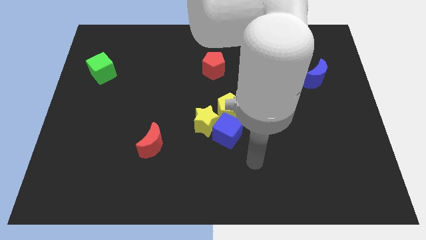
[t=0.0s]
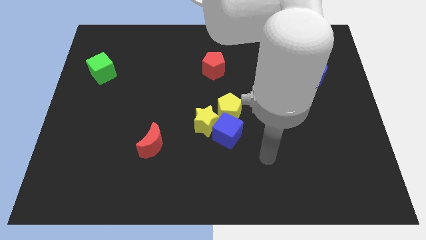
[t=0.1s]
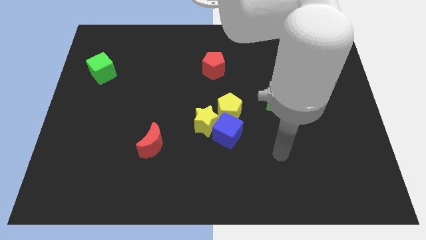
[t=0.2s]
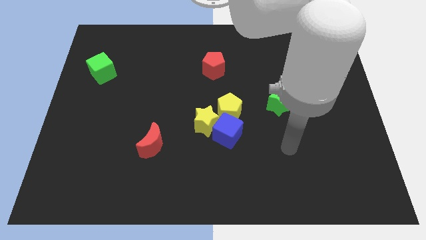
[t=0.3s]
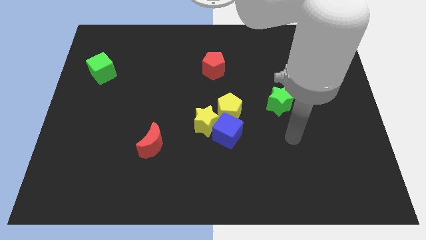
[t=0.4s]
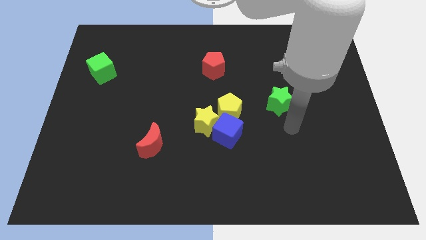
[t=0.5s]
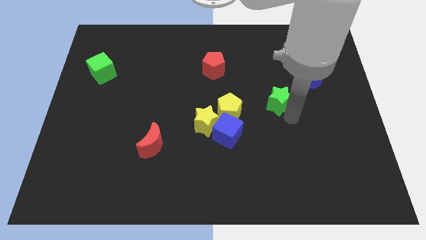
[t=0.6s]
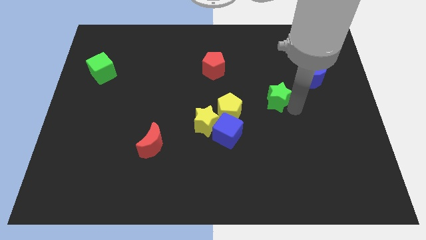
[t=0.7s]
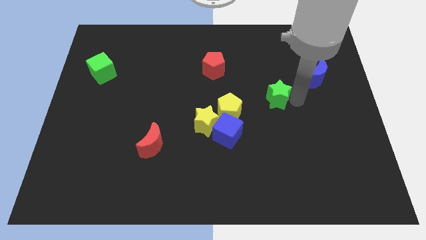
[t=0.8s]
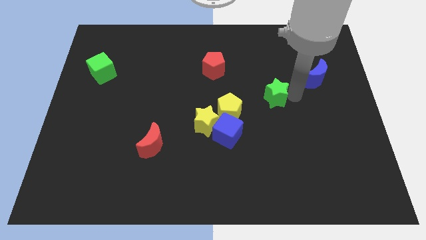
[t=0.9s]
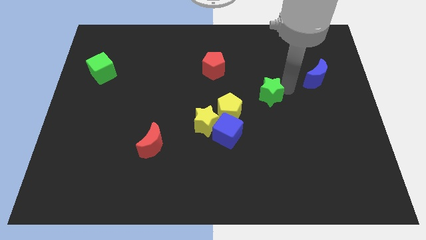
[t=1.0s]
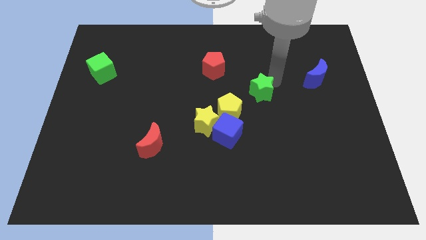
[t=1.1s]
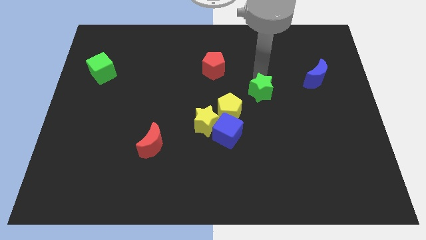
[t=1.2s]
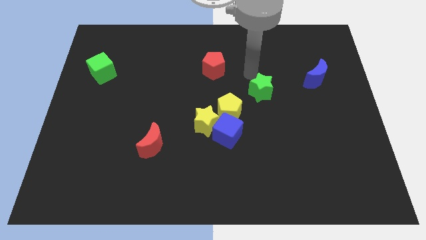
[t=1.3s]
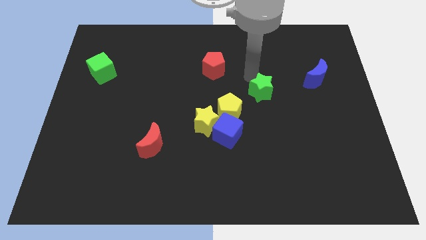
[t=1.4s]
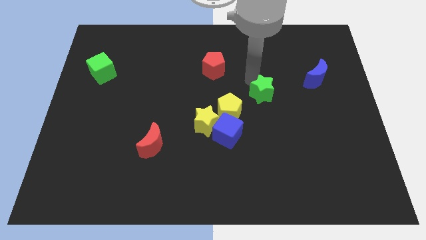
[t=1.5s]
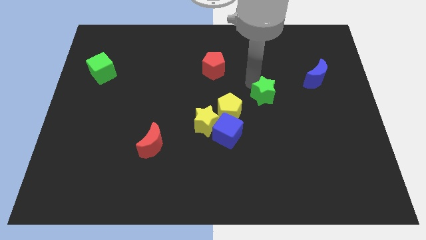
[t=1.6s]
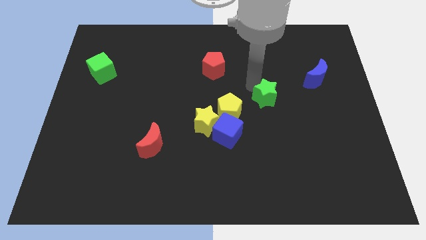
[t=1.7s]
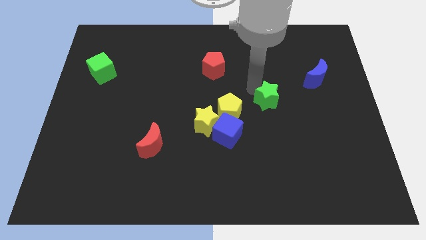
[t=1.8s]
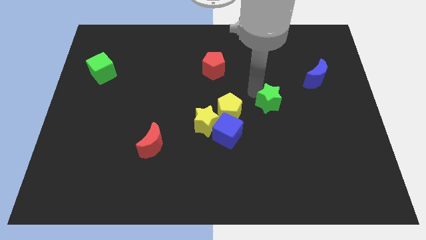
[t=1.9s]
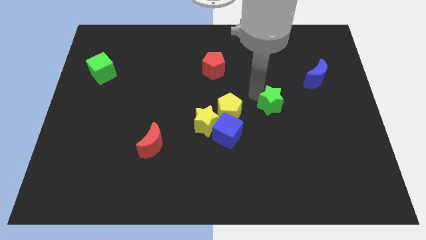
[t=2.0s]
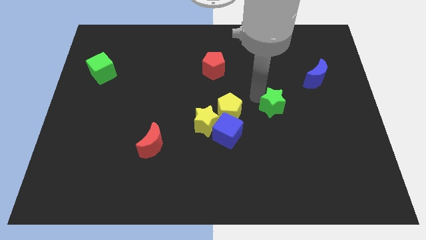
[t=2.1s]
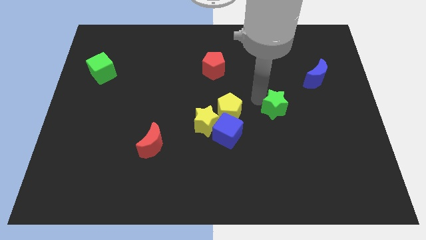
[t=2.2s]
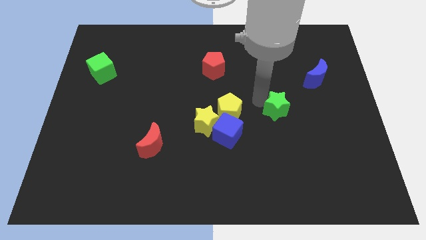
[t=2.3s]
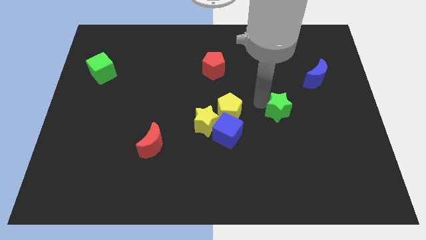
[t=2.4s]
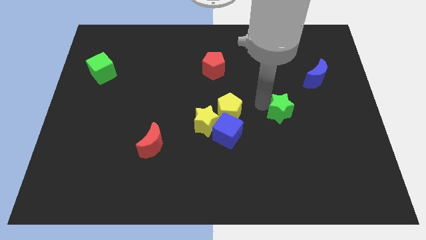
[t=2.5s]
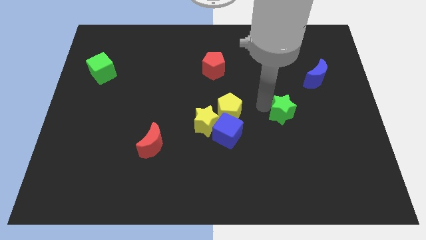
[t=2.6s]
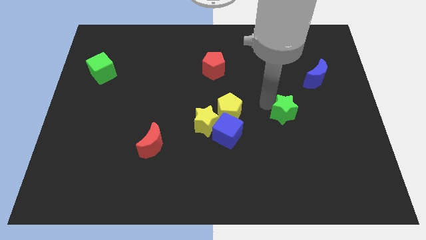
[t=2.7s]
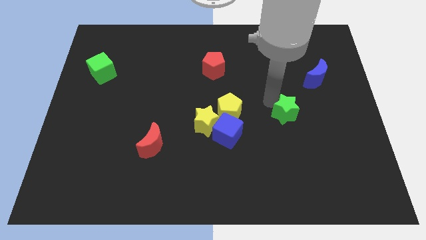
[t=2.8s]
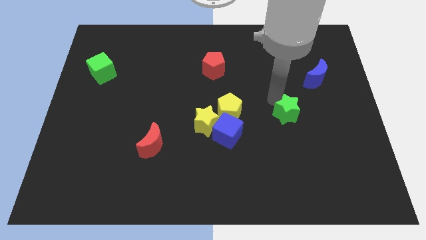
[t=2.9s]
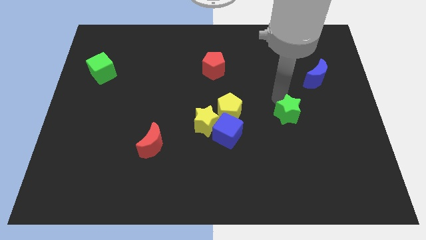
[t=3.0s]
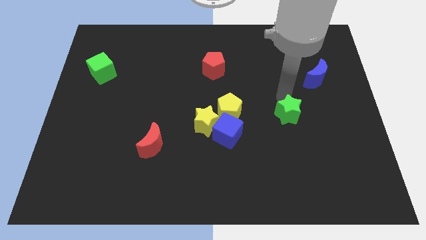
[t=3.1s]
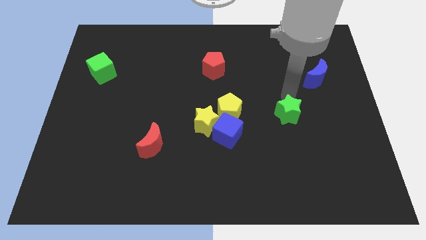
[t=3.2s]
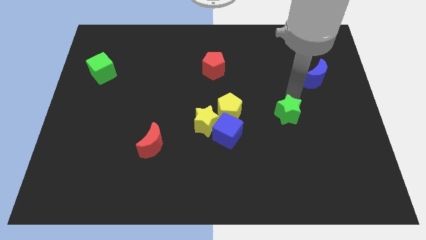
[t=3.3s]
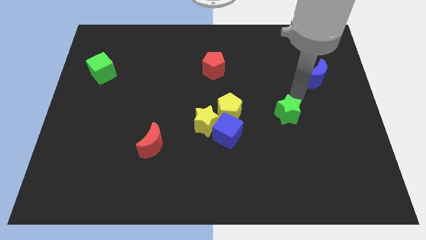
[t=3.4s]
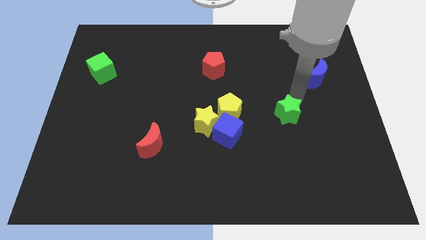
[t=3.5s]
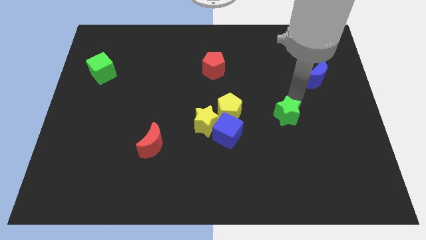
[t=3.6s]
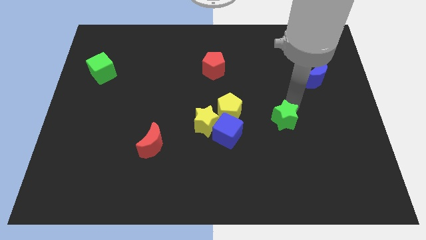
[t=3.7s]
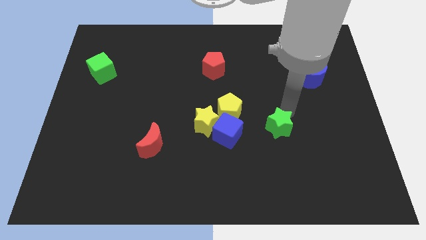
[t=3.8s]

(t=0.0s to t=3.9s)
slide the green star downwards a little bit

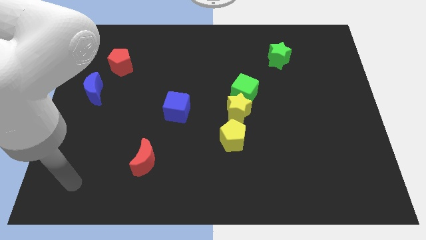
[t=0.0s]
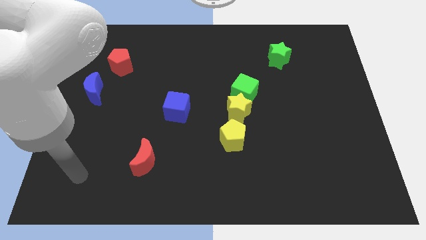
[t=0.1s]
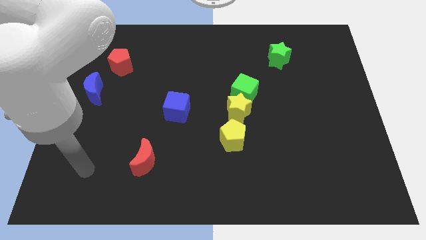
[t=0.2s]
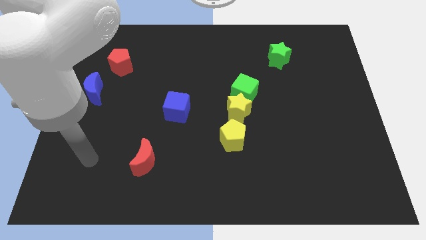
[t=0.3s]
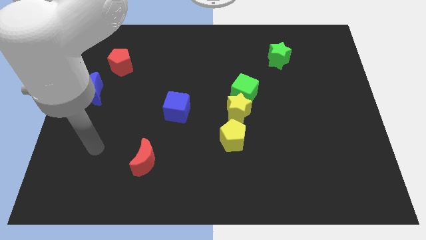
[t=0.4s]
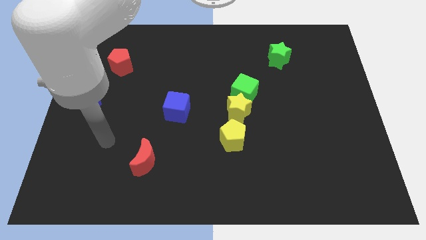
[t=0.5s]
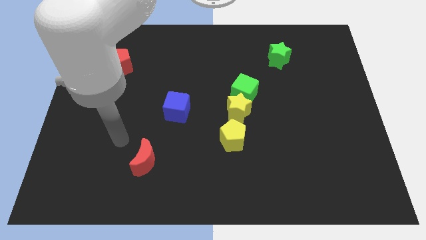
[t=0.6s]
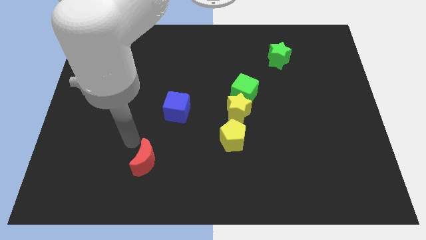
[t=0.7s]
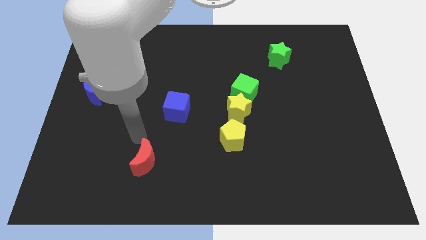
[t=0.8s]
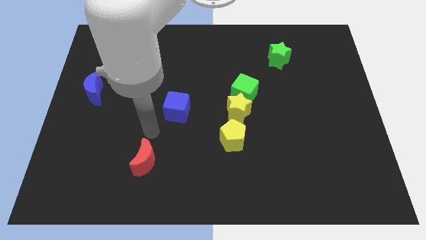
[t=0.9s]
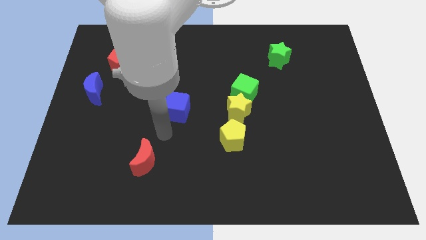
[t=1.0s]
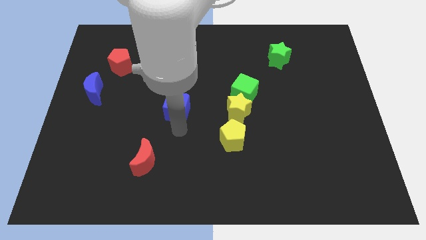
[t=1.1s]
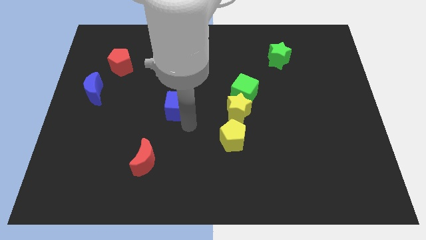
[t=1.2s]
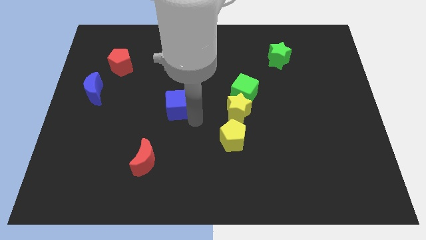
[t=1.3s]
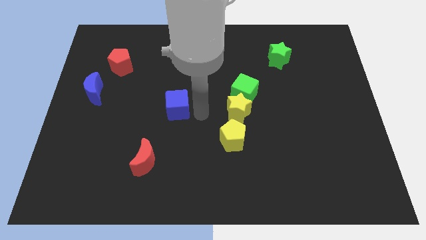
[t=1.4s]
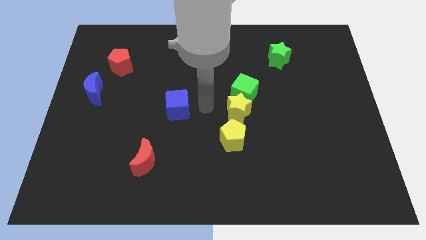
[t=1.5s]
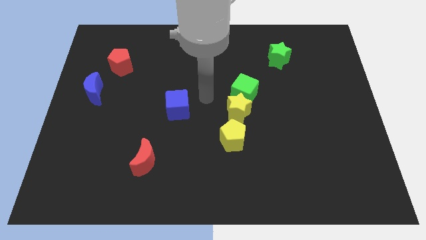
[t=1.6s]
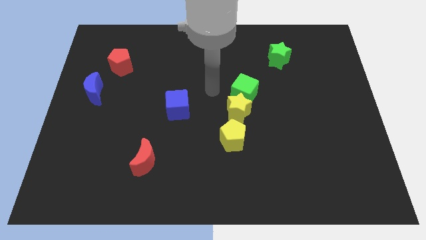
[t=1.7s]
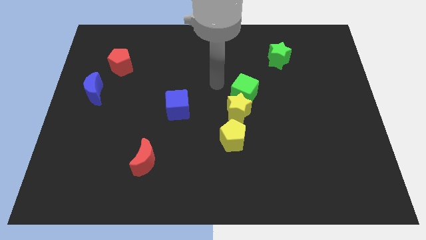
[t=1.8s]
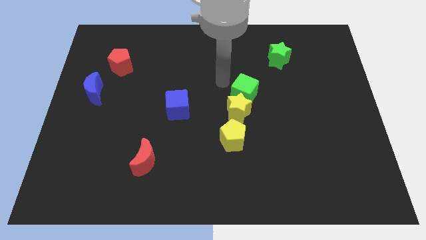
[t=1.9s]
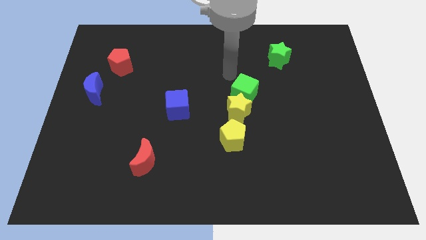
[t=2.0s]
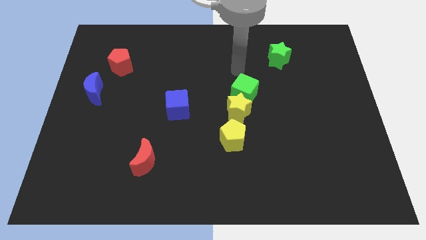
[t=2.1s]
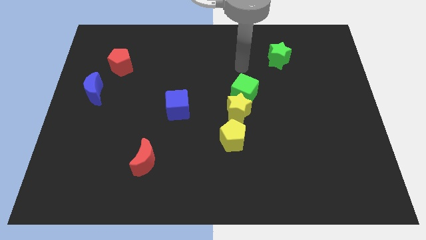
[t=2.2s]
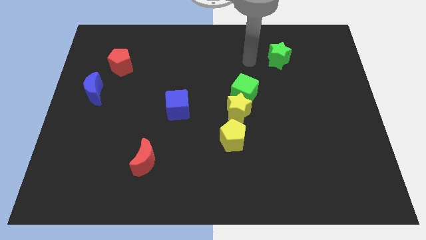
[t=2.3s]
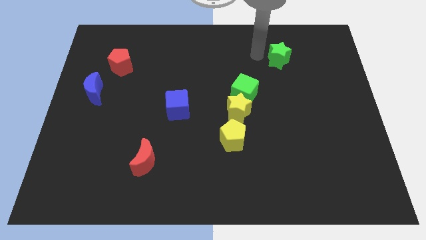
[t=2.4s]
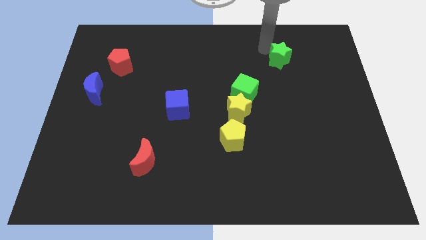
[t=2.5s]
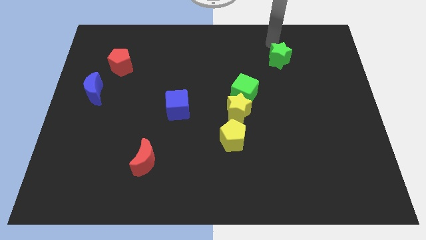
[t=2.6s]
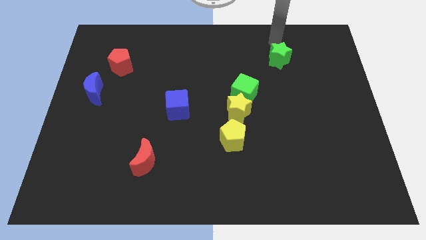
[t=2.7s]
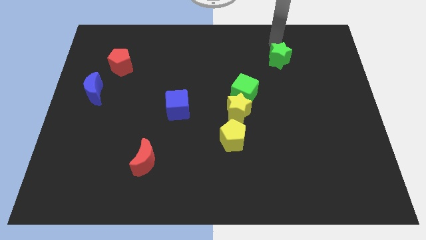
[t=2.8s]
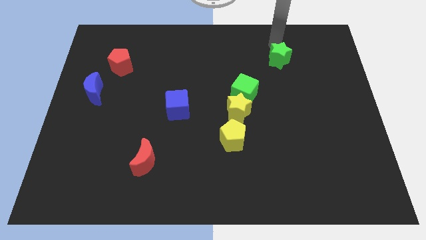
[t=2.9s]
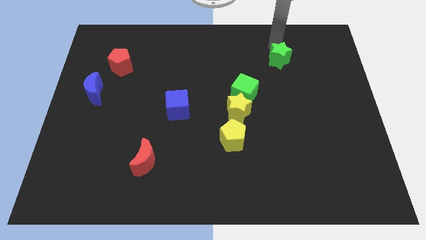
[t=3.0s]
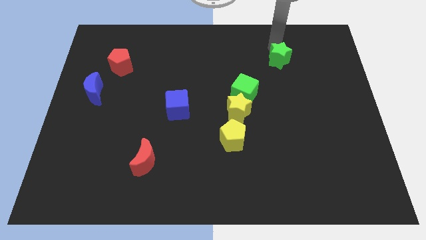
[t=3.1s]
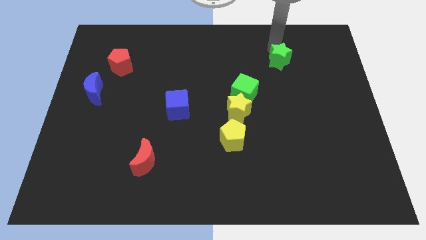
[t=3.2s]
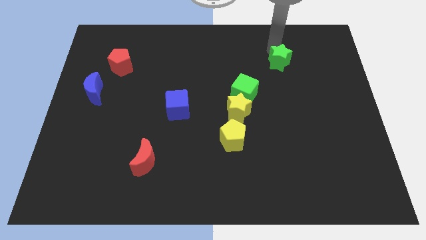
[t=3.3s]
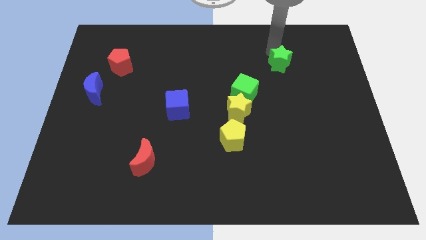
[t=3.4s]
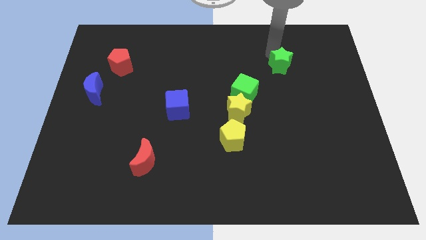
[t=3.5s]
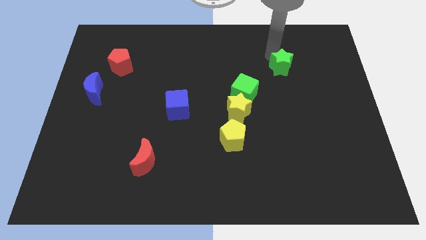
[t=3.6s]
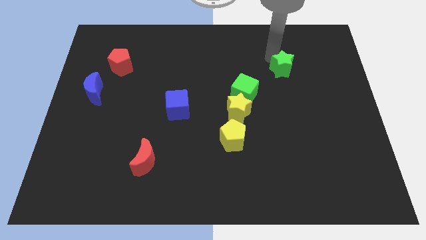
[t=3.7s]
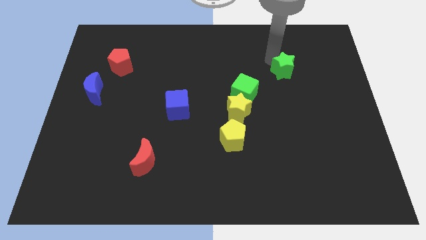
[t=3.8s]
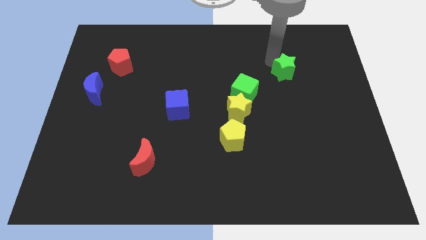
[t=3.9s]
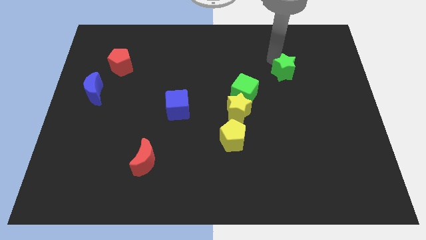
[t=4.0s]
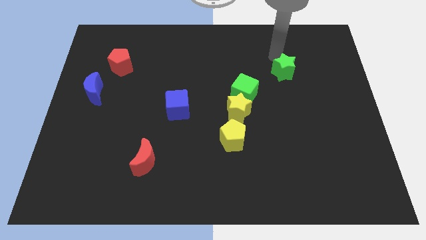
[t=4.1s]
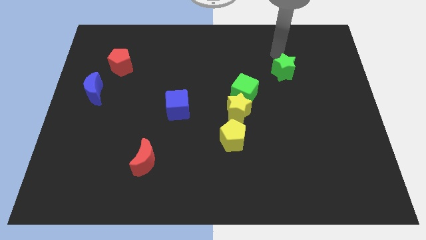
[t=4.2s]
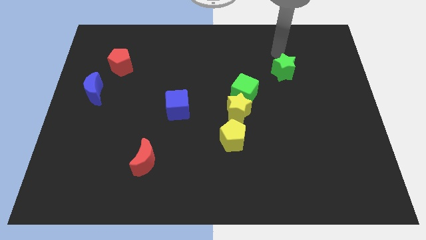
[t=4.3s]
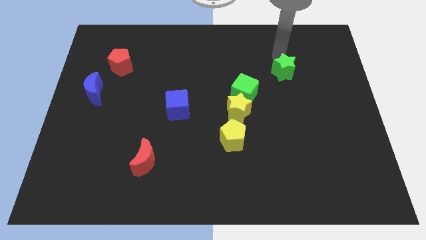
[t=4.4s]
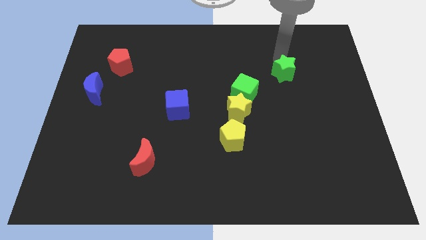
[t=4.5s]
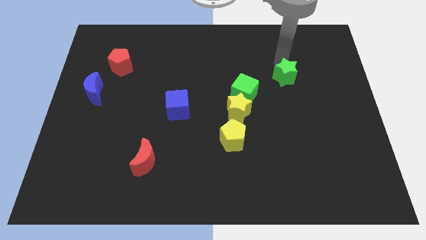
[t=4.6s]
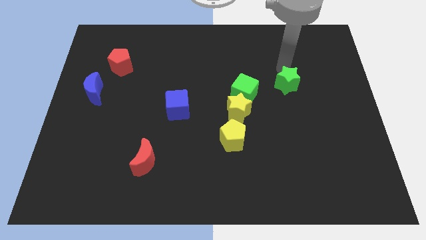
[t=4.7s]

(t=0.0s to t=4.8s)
move the green star a bit downwards
